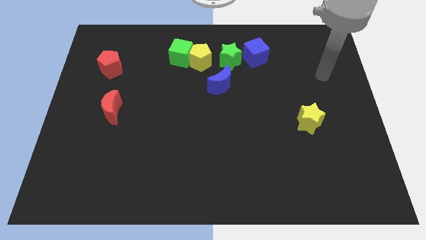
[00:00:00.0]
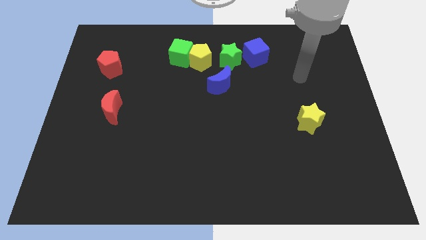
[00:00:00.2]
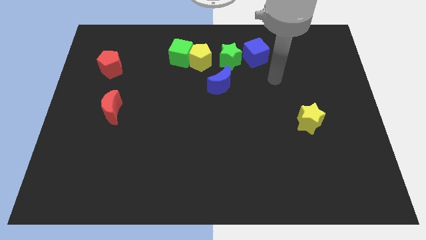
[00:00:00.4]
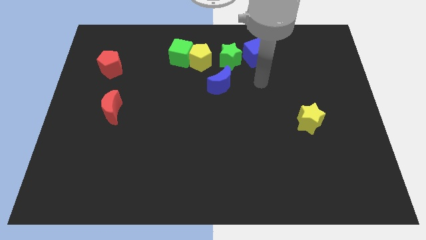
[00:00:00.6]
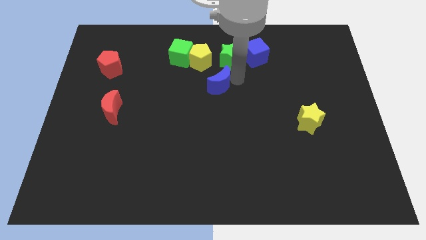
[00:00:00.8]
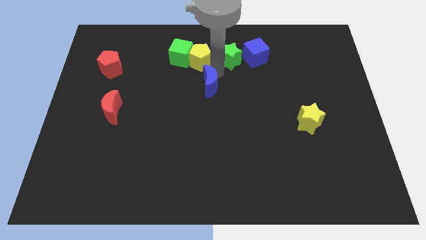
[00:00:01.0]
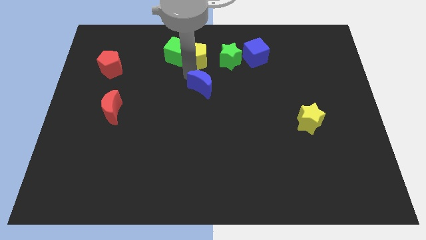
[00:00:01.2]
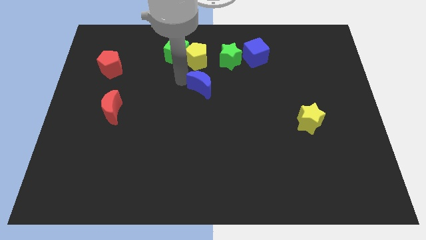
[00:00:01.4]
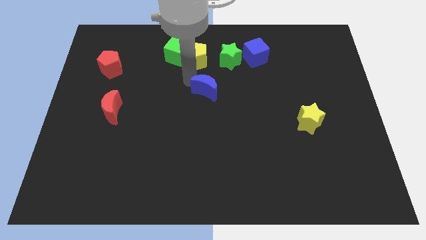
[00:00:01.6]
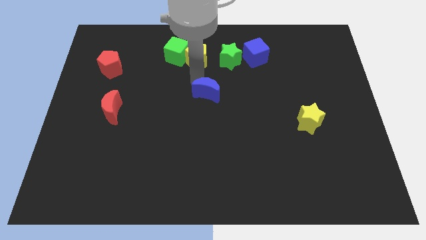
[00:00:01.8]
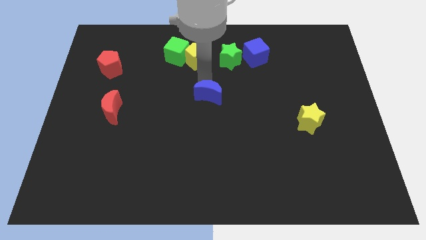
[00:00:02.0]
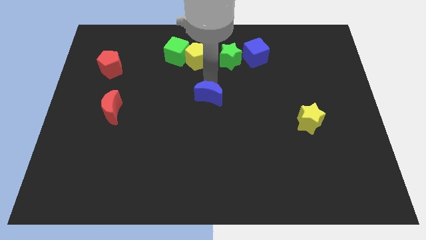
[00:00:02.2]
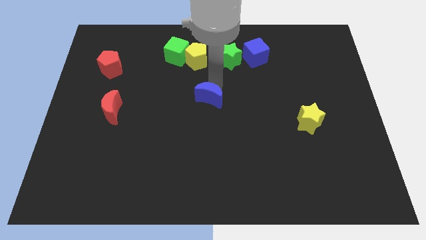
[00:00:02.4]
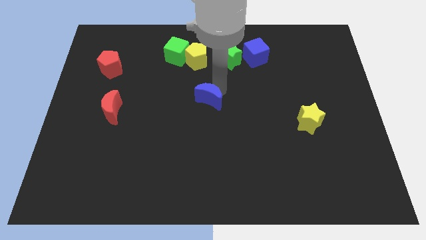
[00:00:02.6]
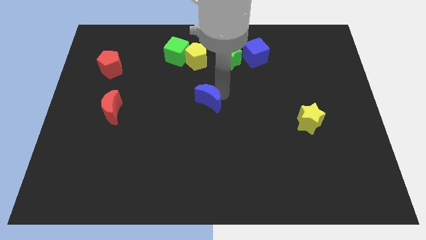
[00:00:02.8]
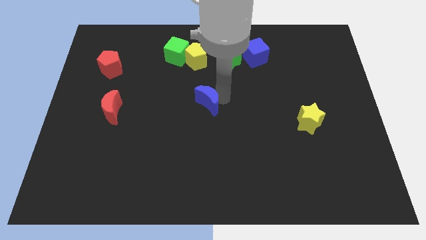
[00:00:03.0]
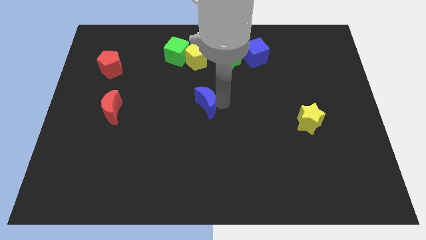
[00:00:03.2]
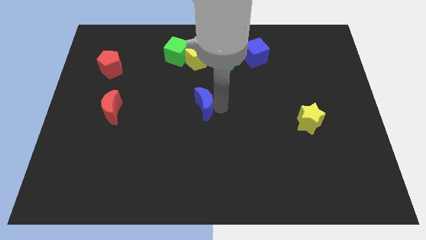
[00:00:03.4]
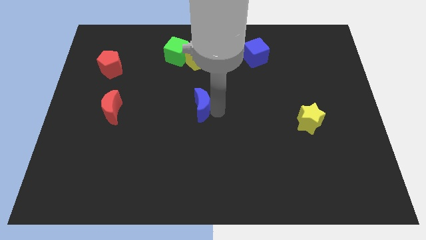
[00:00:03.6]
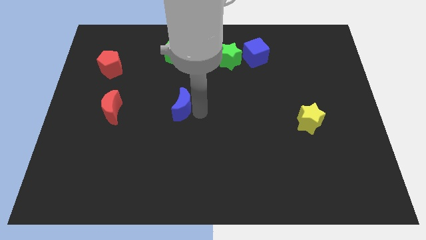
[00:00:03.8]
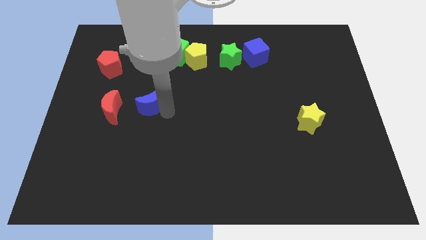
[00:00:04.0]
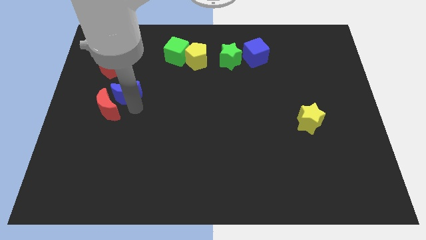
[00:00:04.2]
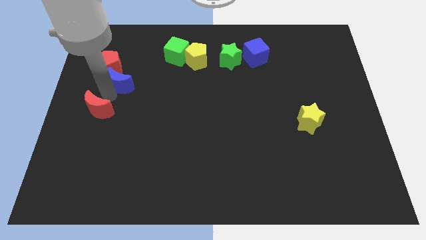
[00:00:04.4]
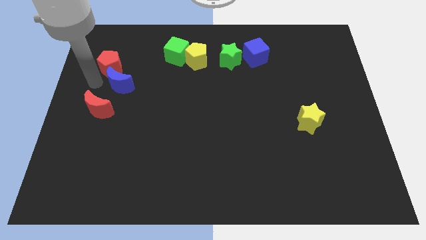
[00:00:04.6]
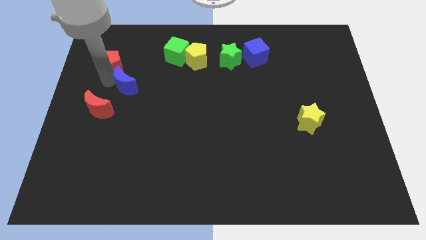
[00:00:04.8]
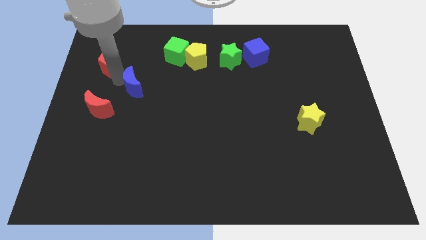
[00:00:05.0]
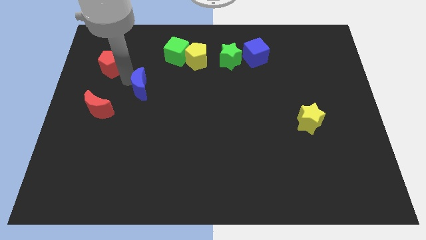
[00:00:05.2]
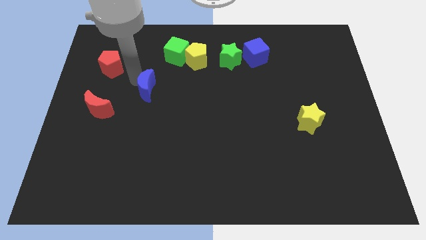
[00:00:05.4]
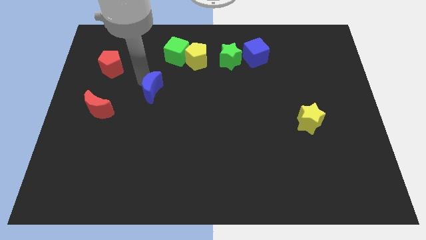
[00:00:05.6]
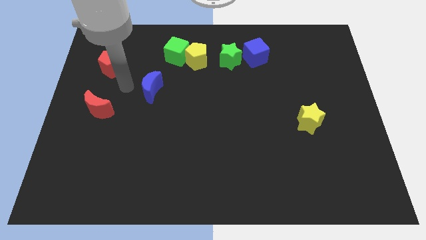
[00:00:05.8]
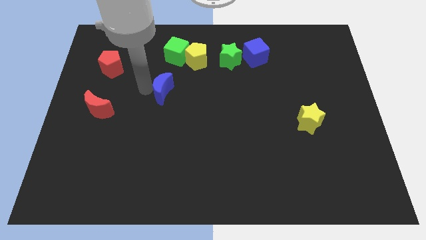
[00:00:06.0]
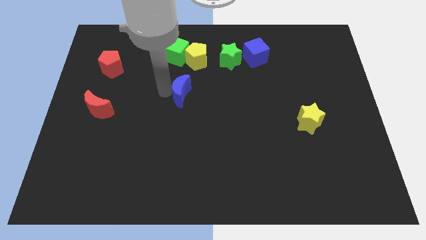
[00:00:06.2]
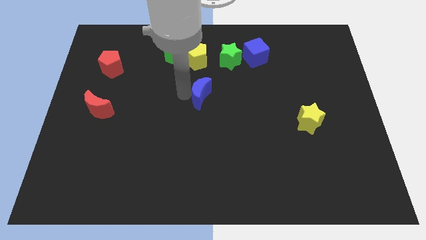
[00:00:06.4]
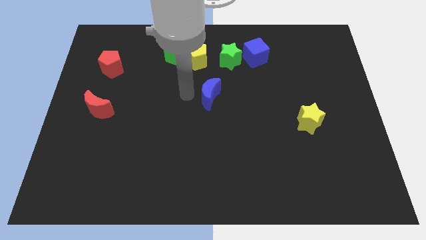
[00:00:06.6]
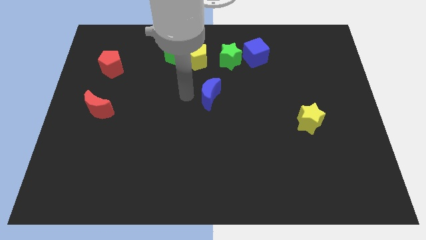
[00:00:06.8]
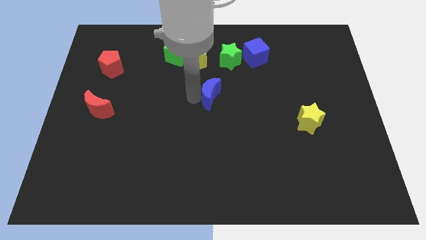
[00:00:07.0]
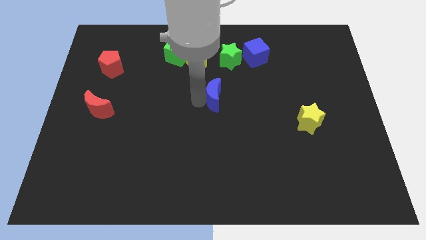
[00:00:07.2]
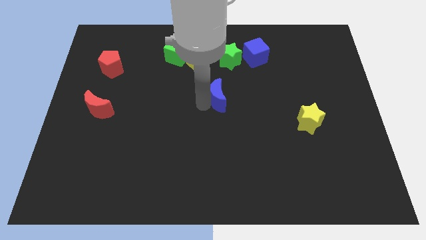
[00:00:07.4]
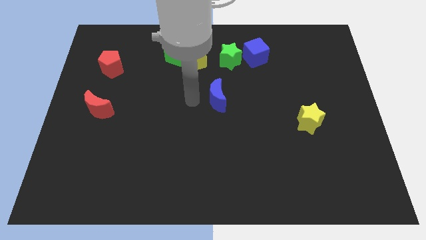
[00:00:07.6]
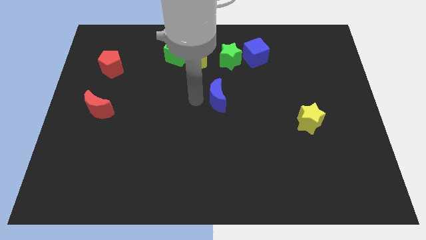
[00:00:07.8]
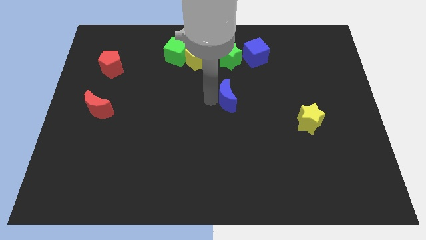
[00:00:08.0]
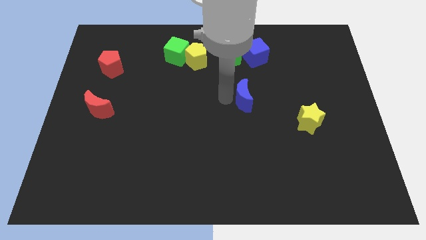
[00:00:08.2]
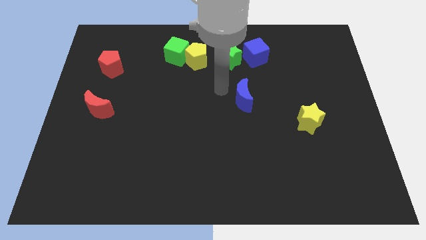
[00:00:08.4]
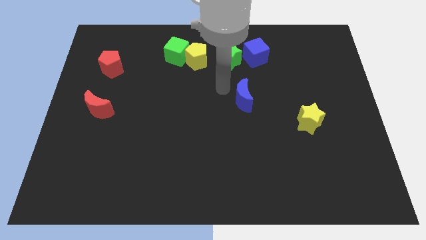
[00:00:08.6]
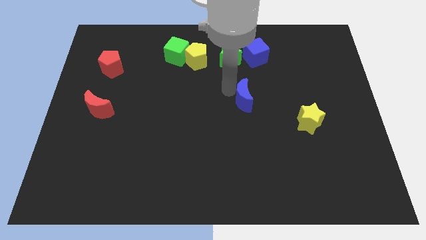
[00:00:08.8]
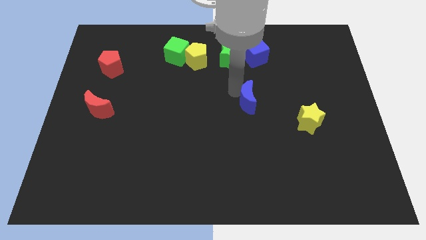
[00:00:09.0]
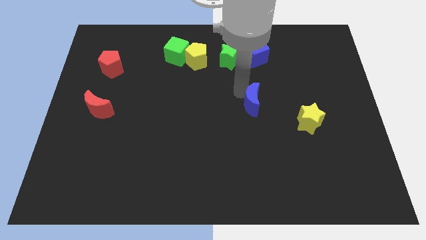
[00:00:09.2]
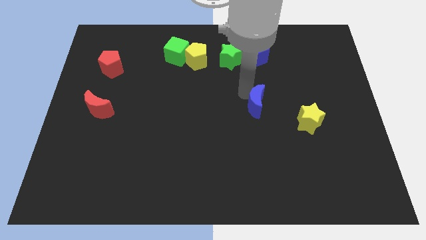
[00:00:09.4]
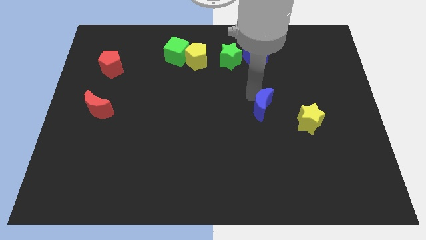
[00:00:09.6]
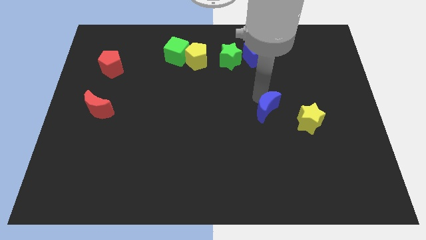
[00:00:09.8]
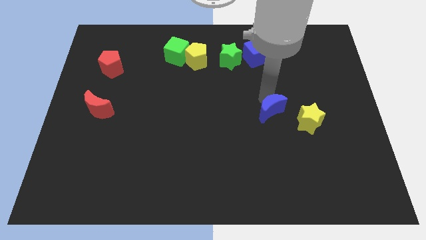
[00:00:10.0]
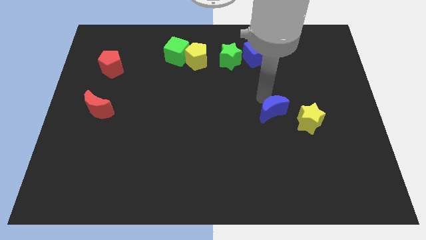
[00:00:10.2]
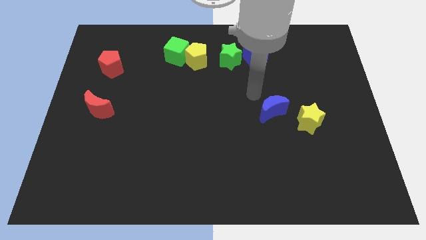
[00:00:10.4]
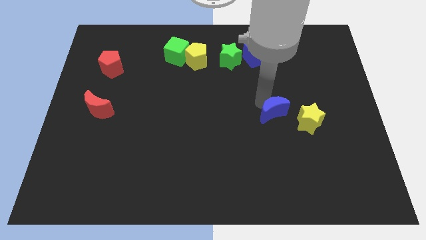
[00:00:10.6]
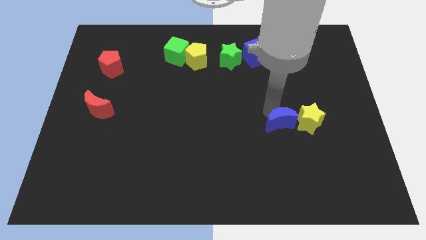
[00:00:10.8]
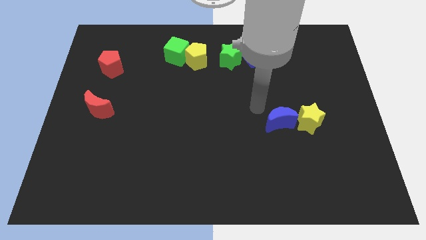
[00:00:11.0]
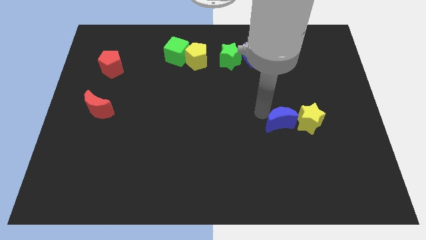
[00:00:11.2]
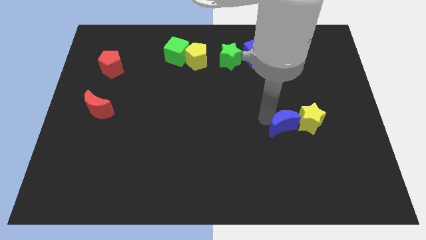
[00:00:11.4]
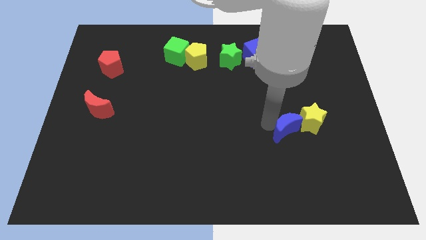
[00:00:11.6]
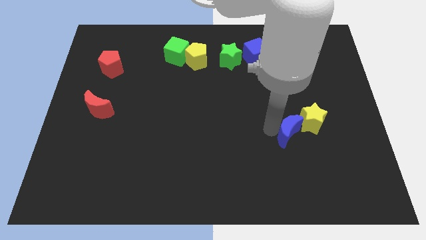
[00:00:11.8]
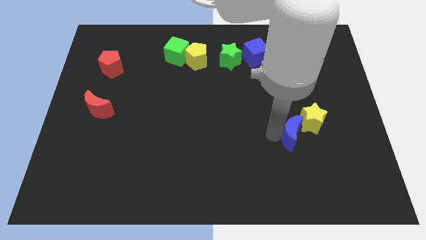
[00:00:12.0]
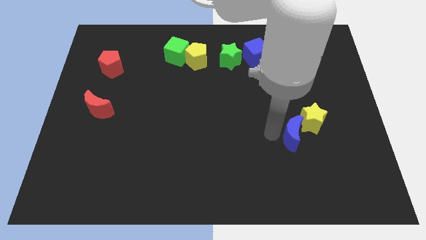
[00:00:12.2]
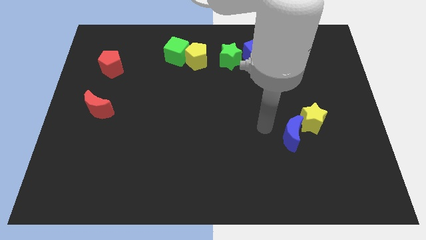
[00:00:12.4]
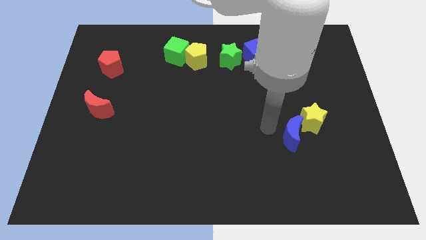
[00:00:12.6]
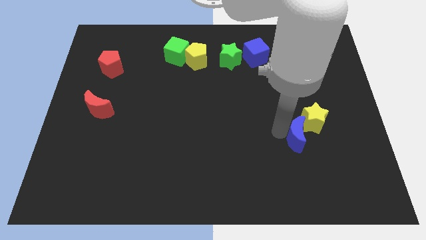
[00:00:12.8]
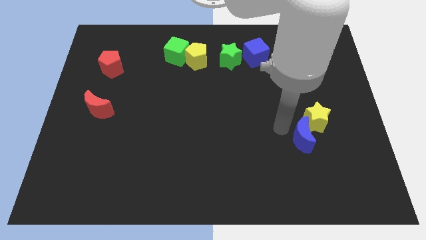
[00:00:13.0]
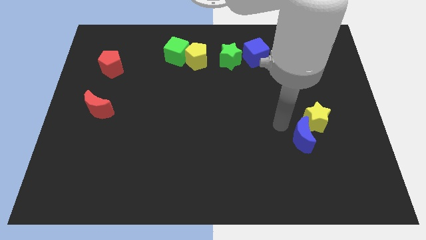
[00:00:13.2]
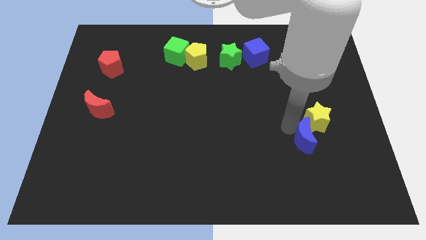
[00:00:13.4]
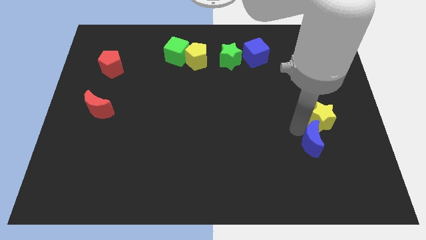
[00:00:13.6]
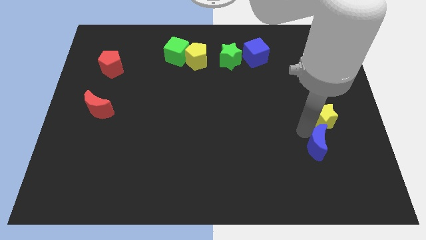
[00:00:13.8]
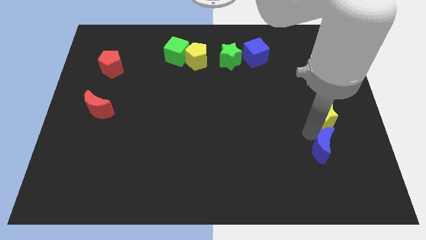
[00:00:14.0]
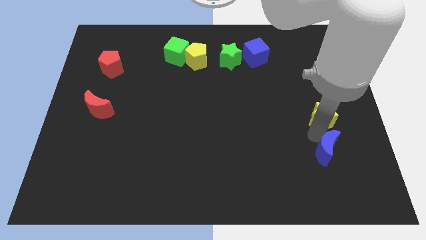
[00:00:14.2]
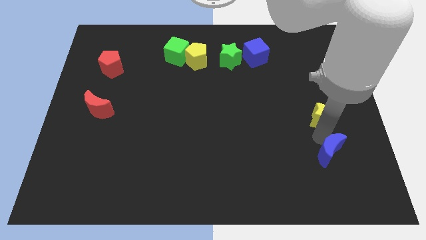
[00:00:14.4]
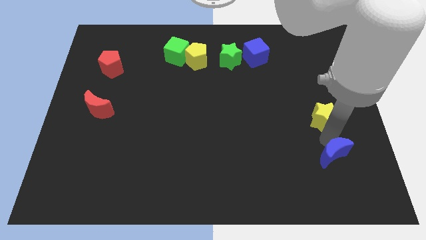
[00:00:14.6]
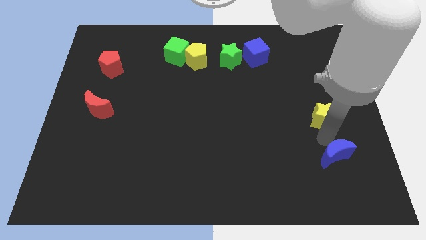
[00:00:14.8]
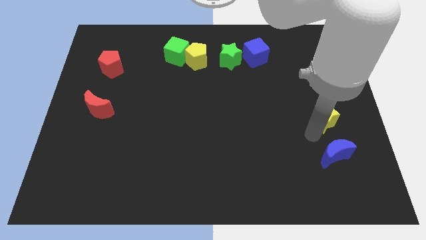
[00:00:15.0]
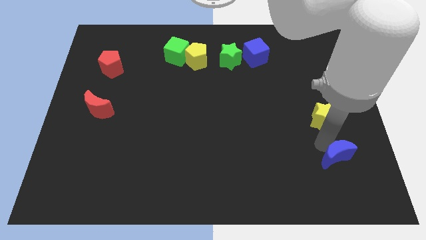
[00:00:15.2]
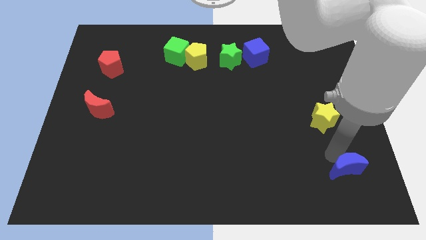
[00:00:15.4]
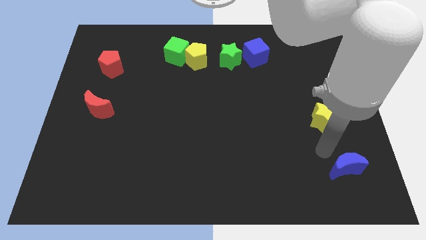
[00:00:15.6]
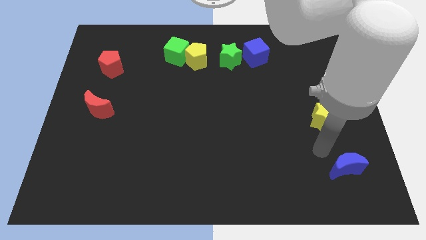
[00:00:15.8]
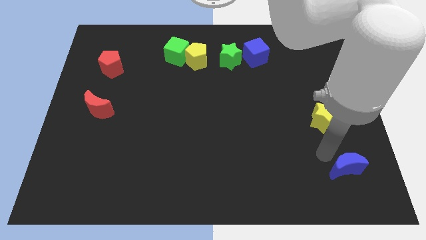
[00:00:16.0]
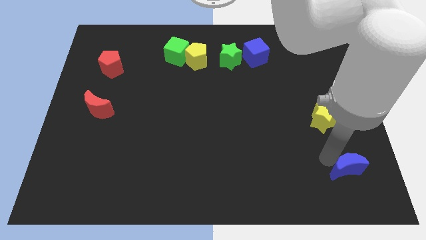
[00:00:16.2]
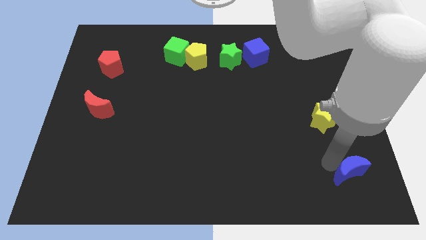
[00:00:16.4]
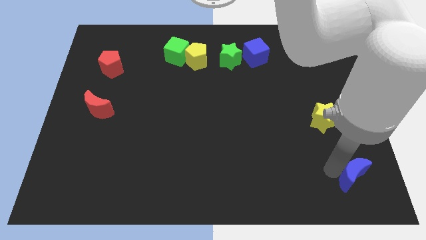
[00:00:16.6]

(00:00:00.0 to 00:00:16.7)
slide the blue moon to the bottom right of the board
